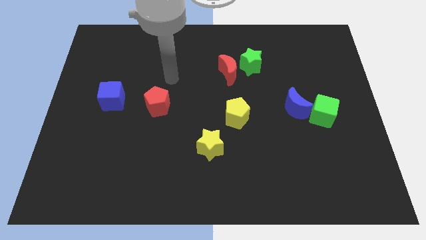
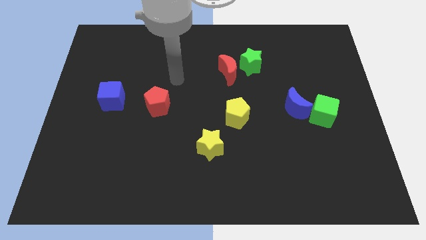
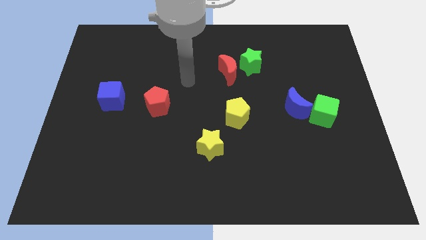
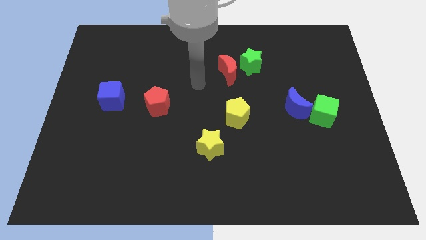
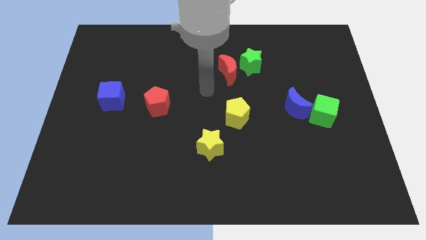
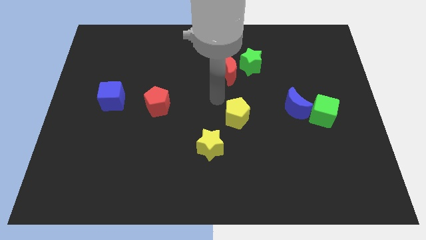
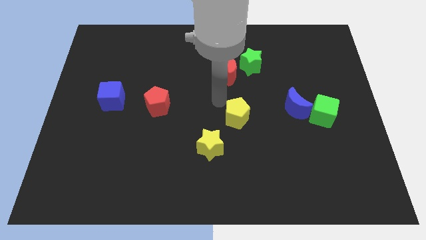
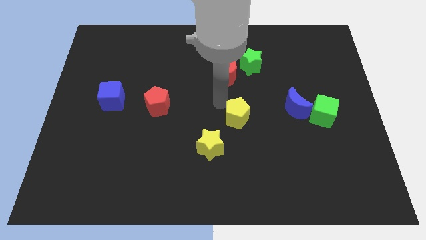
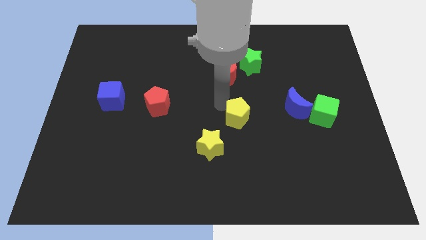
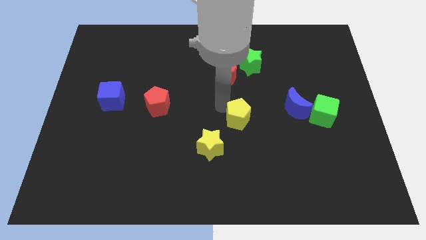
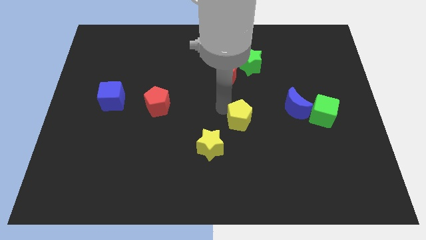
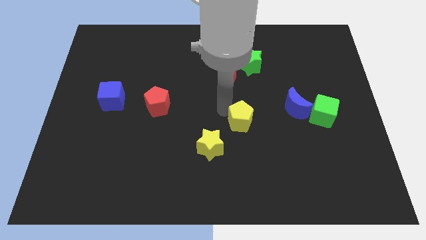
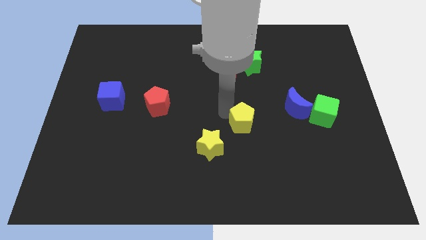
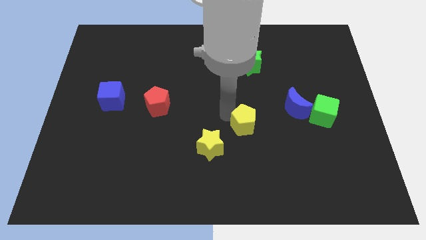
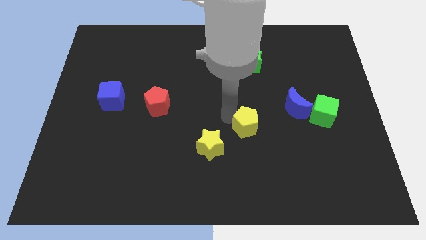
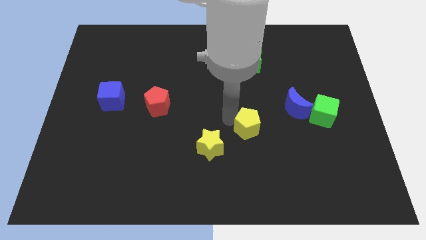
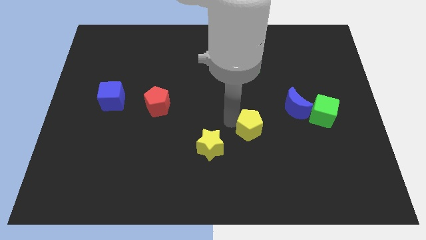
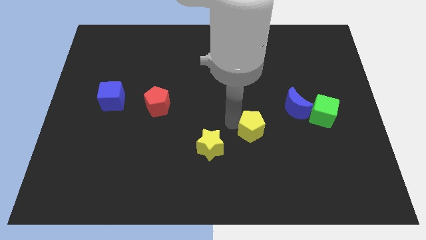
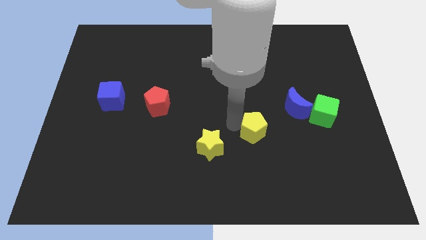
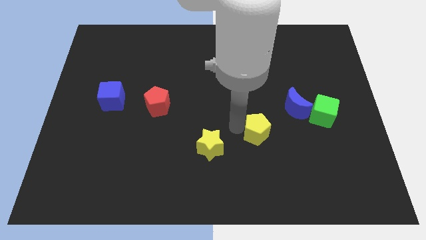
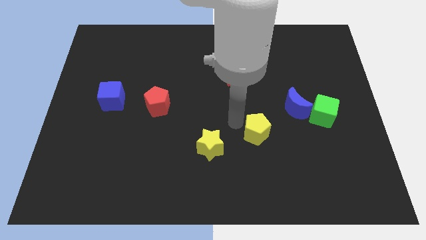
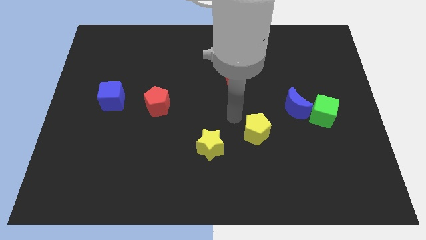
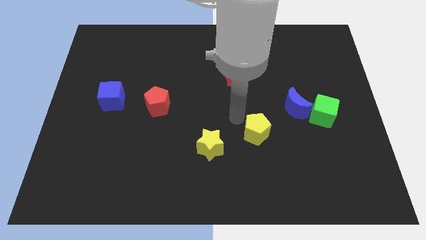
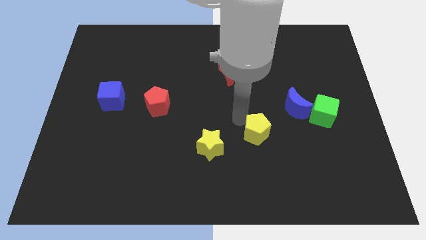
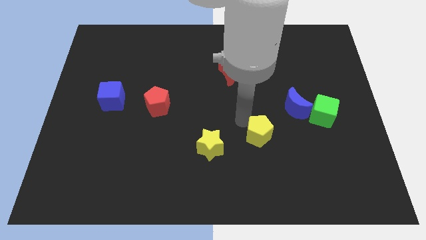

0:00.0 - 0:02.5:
push the yellow pentagon a bit down and to the right diagonally

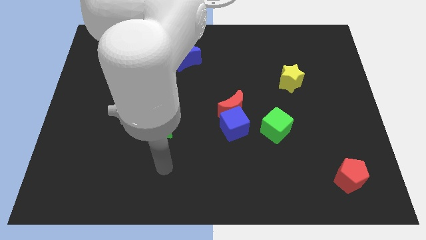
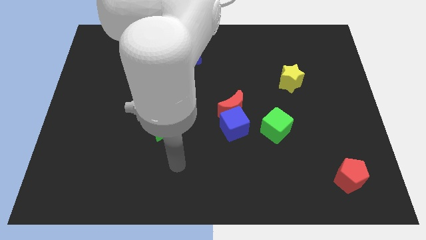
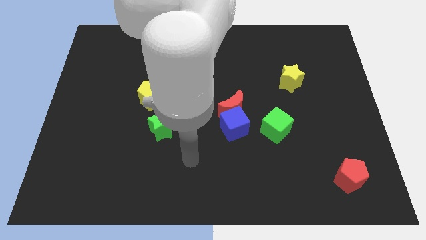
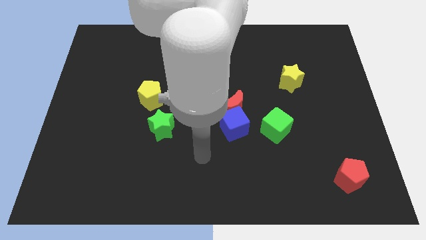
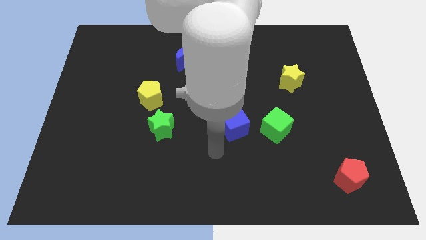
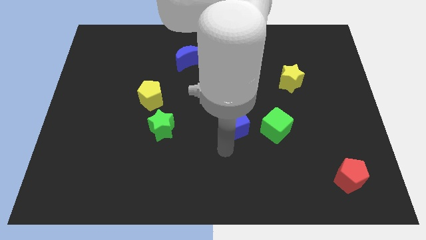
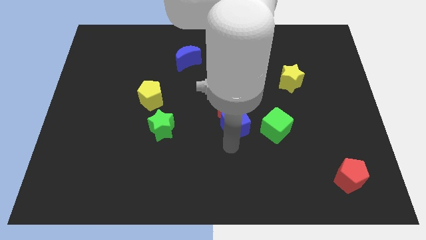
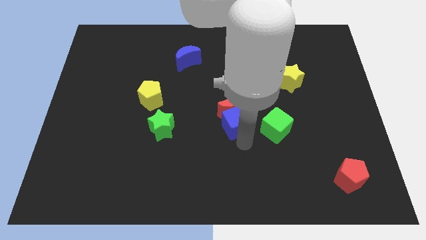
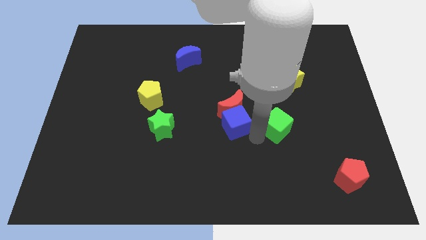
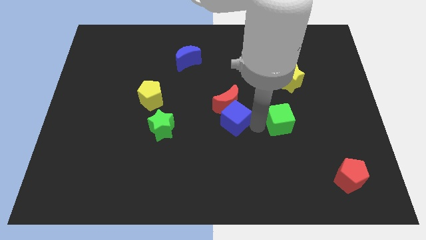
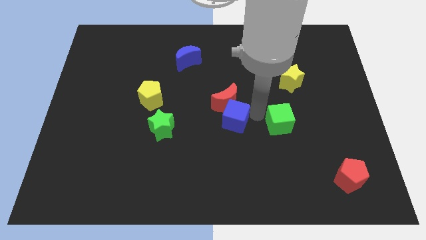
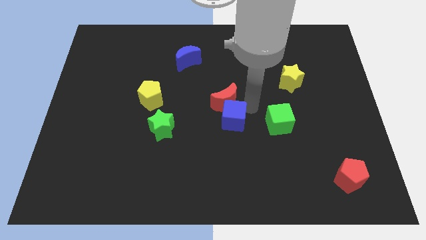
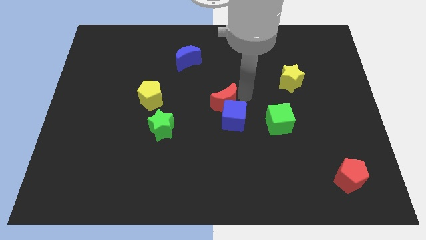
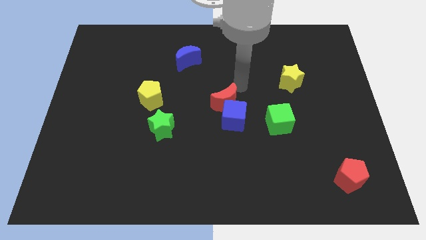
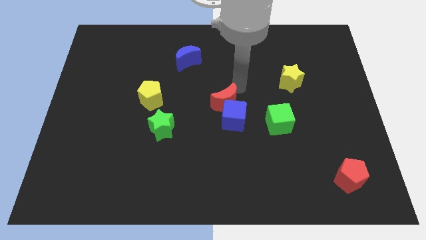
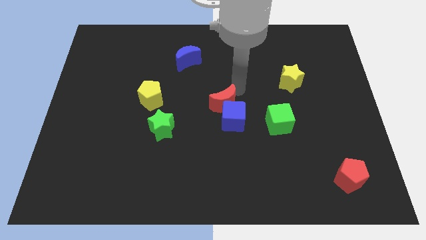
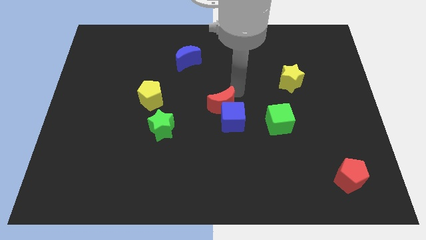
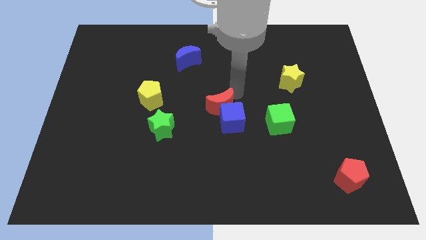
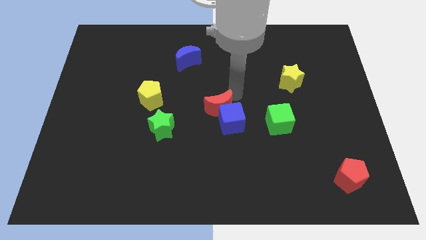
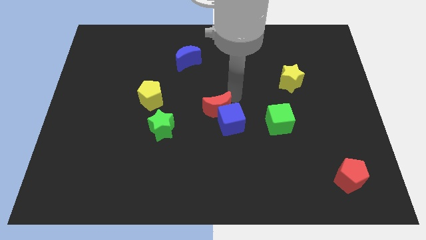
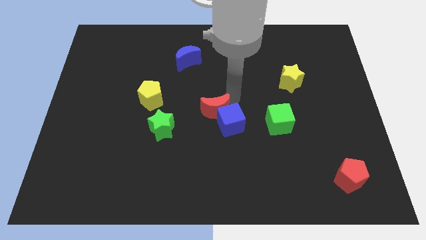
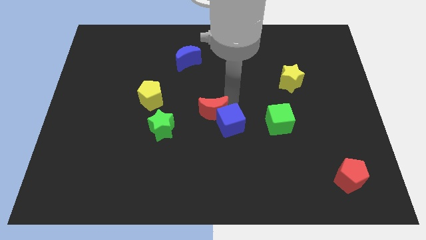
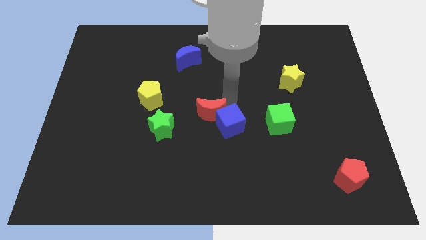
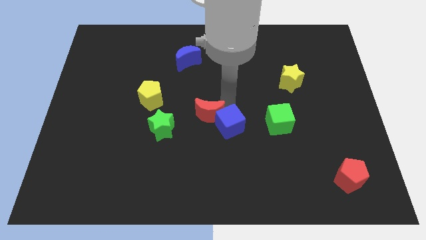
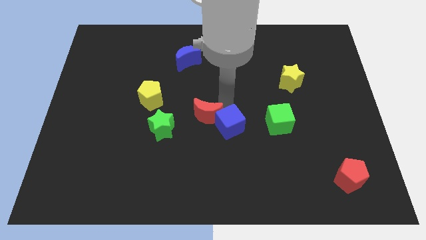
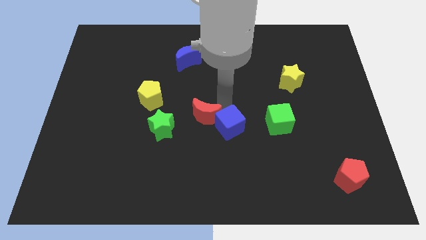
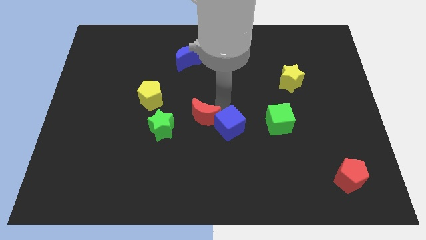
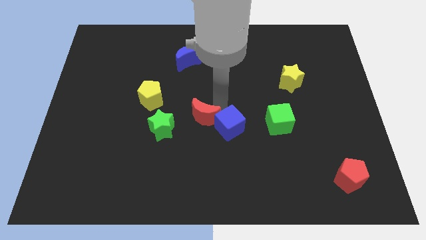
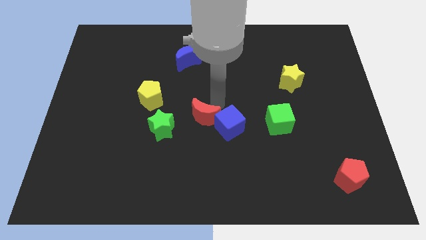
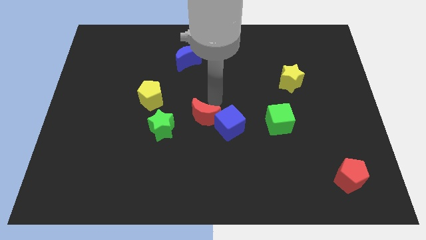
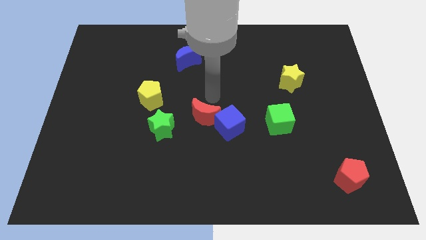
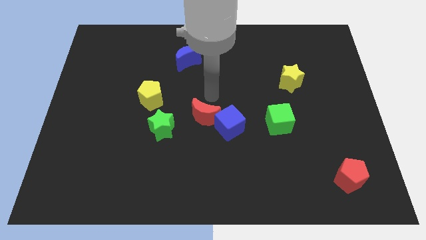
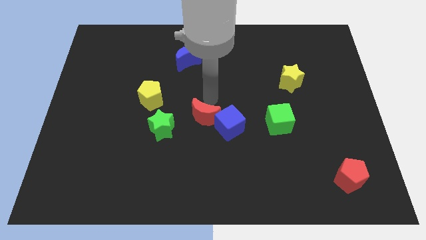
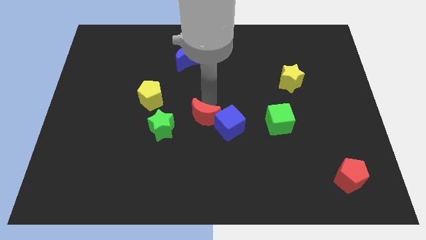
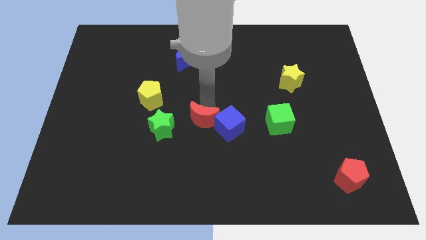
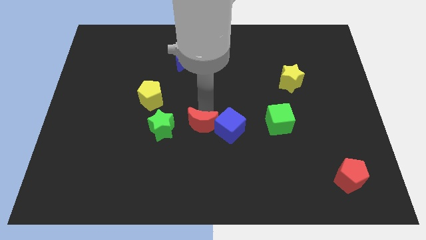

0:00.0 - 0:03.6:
slide the red moon diagonally down and to the left a little bit

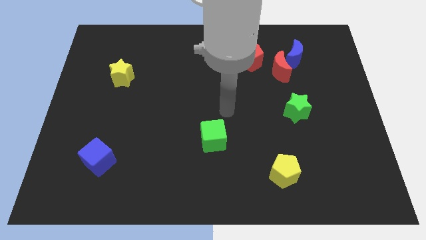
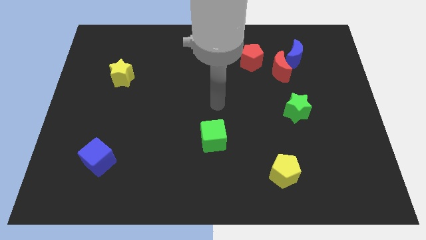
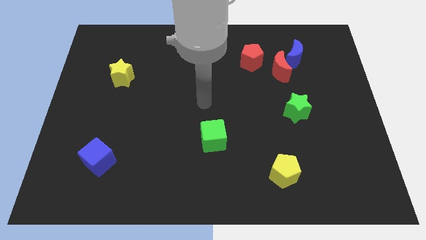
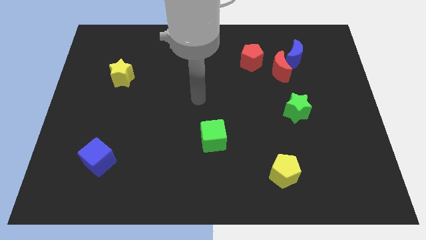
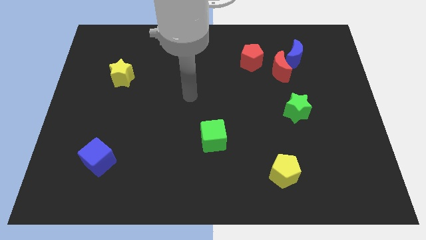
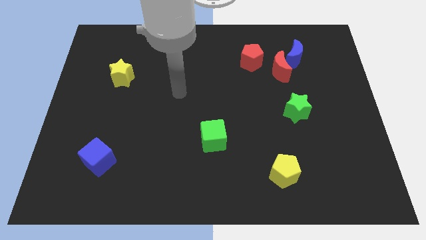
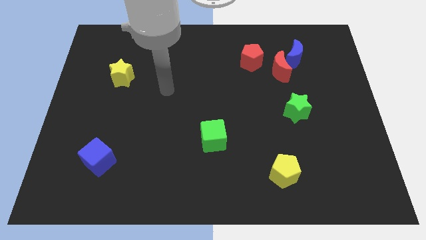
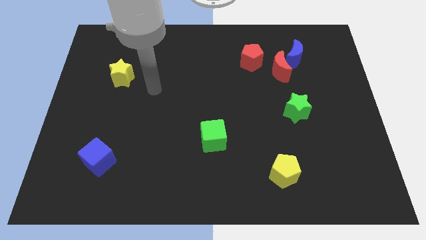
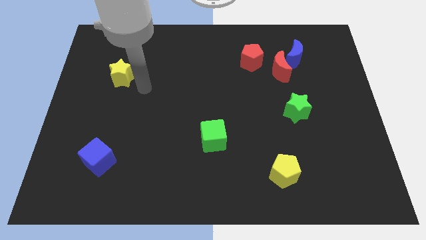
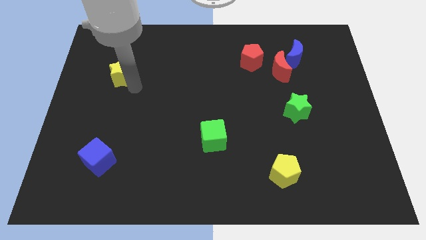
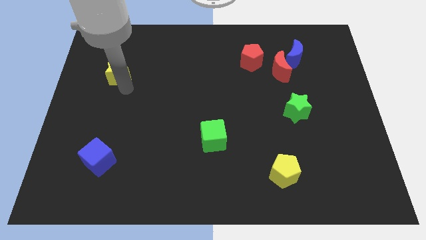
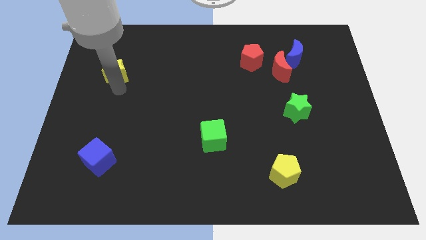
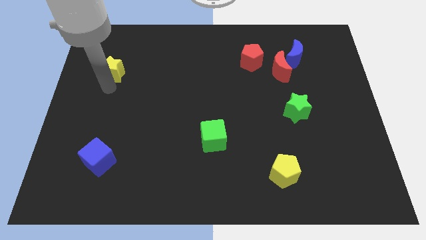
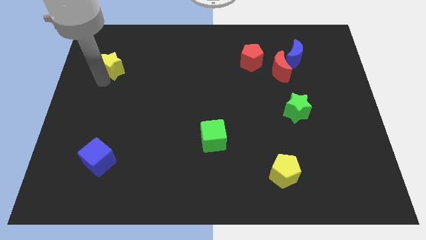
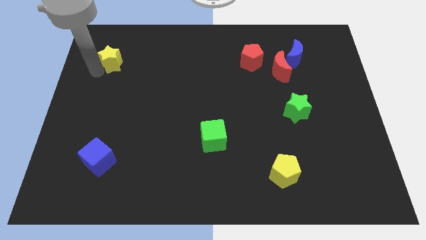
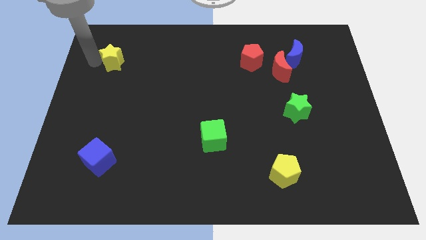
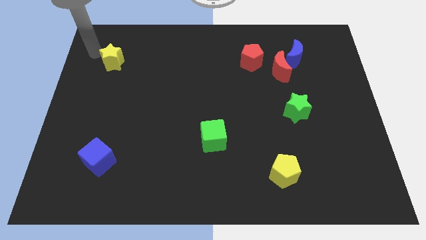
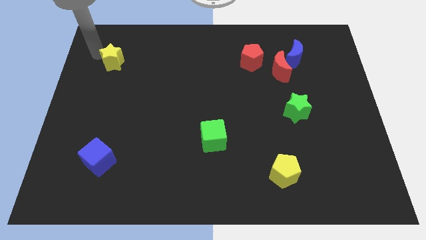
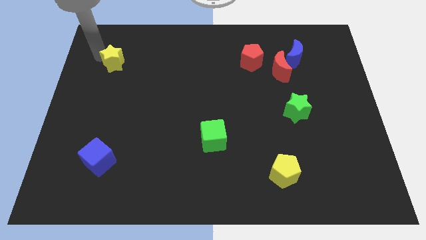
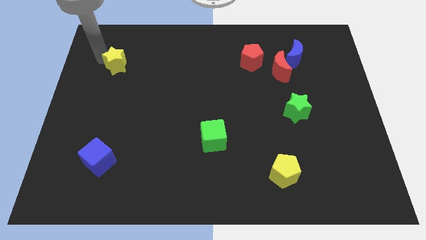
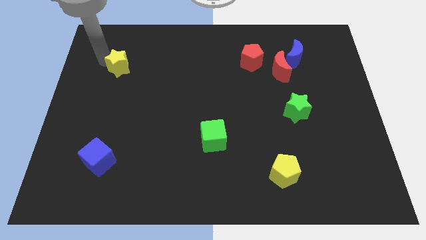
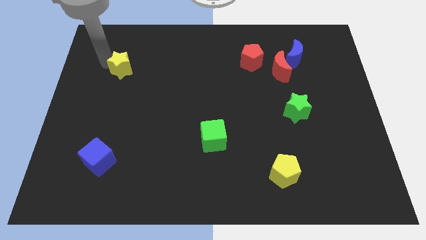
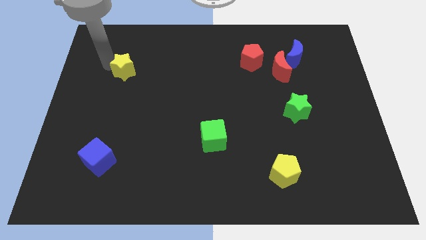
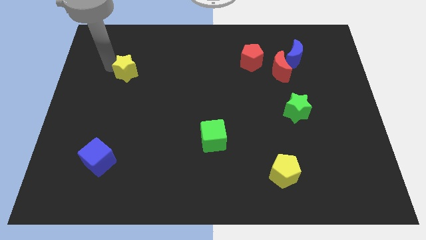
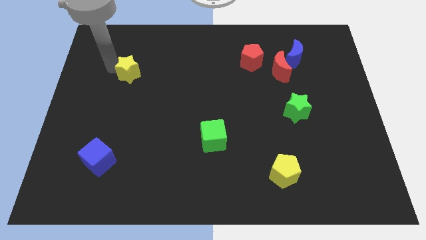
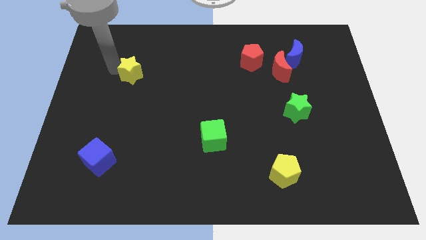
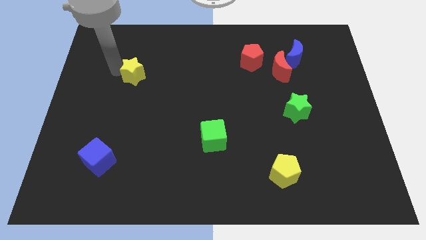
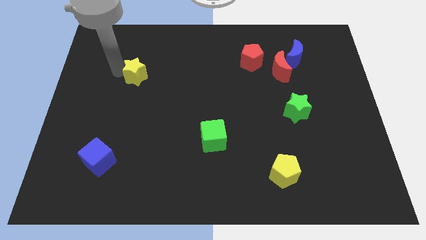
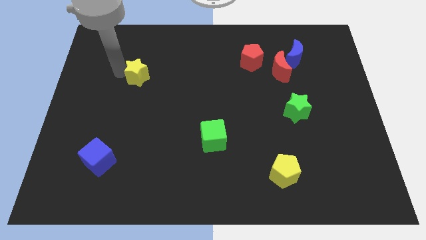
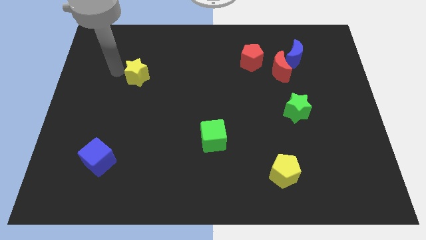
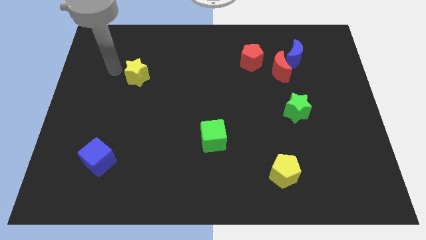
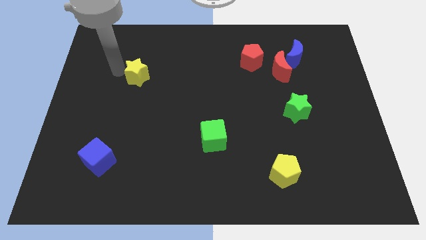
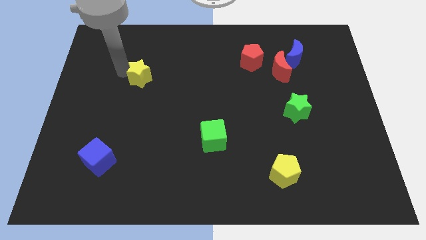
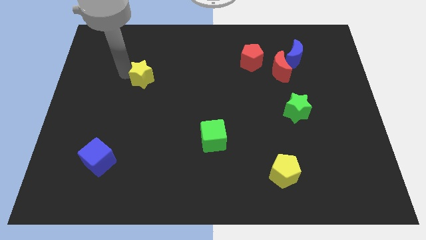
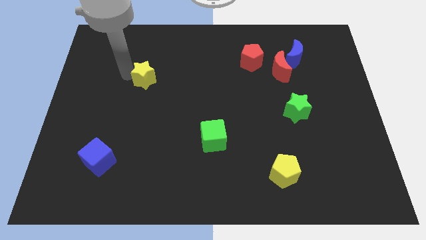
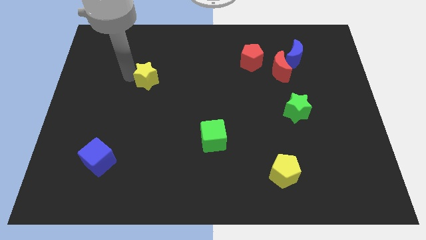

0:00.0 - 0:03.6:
move the yellow star a bit to the right
